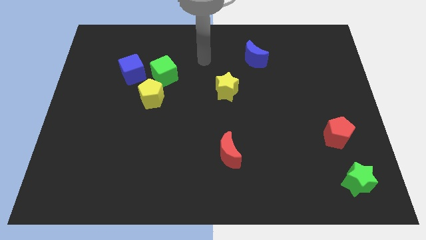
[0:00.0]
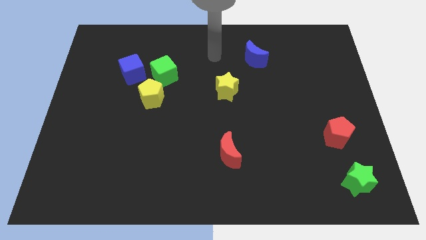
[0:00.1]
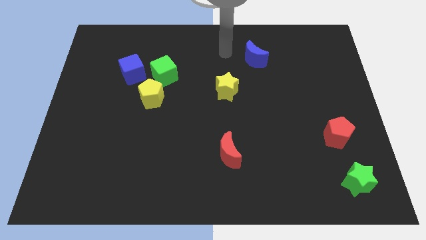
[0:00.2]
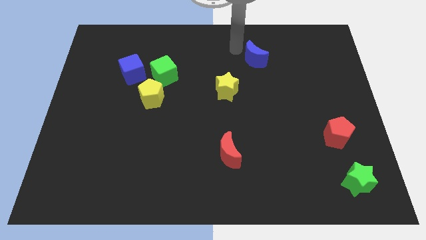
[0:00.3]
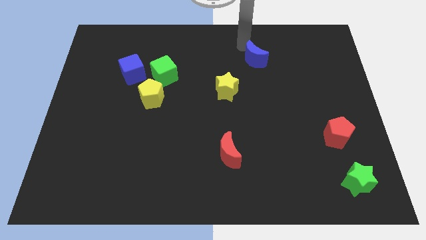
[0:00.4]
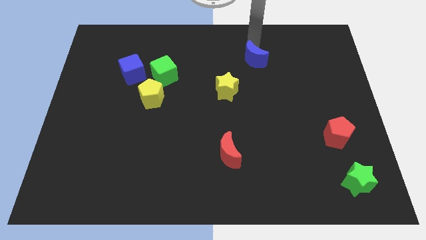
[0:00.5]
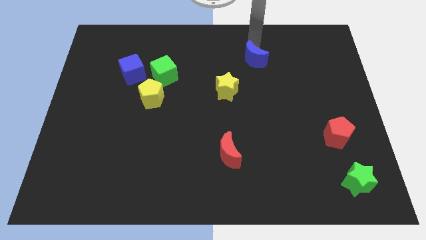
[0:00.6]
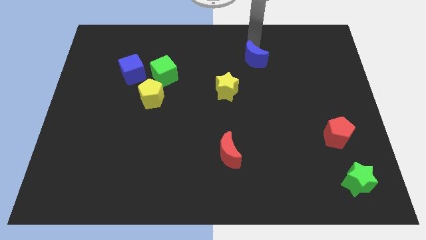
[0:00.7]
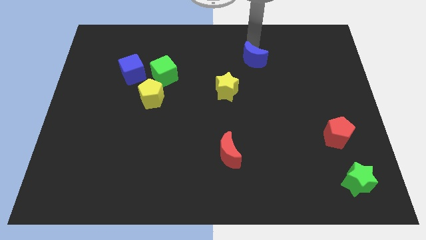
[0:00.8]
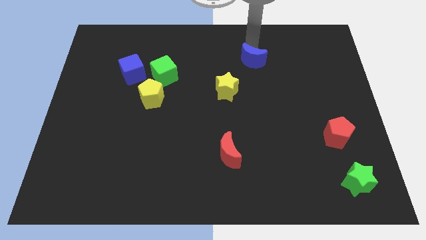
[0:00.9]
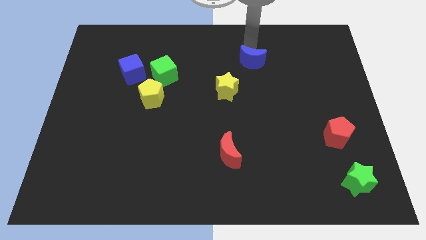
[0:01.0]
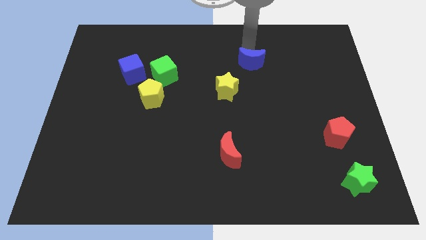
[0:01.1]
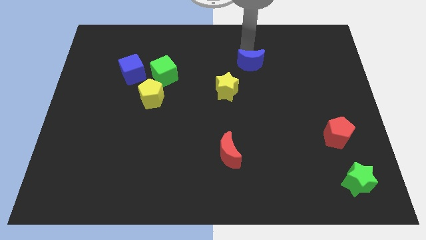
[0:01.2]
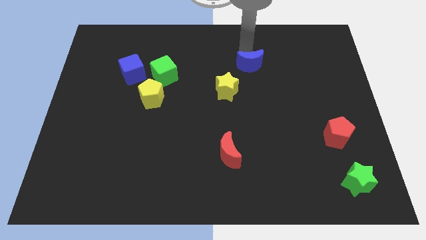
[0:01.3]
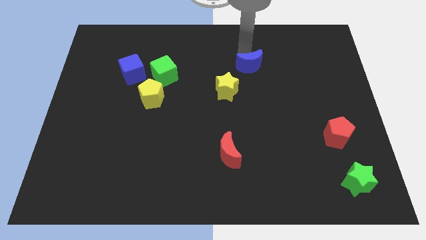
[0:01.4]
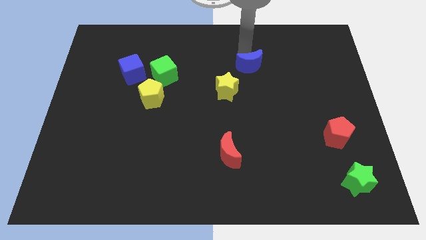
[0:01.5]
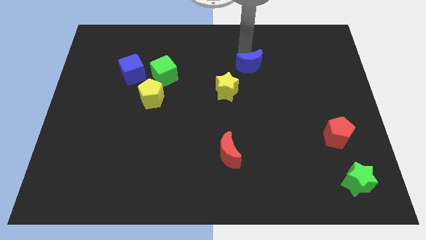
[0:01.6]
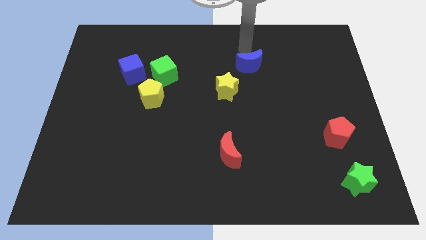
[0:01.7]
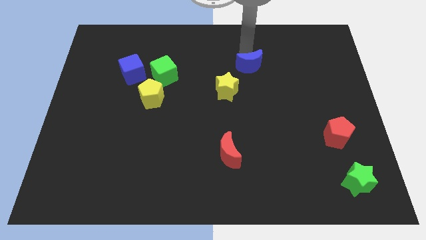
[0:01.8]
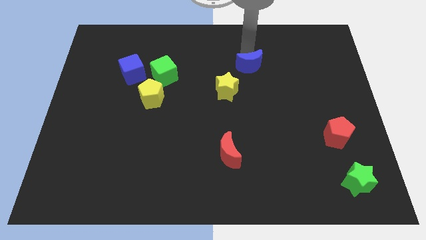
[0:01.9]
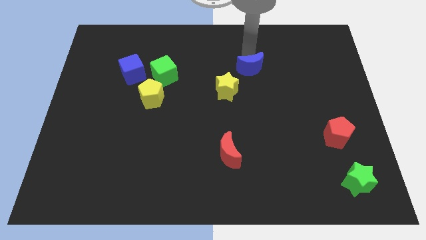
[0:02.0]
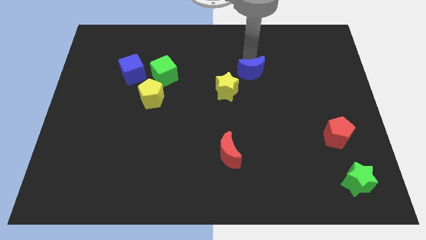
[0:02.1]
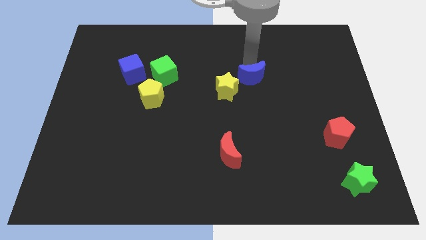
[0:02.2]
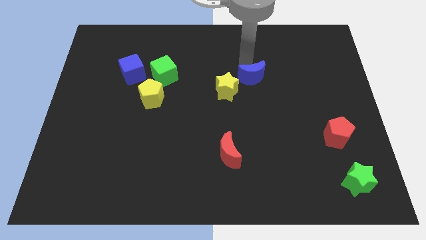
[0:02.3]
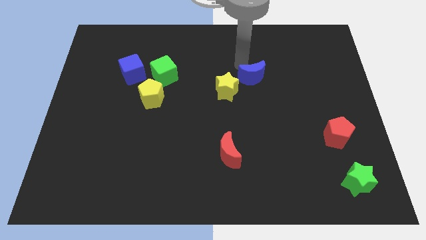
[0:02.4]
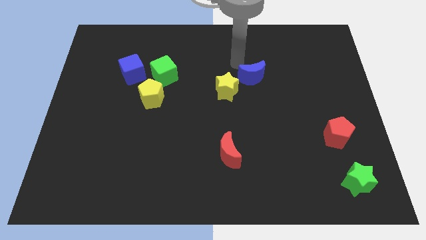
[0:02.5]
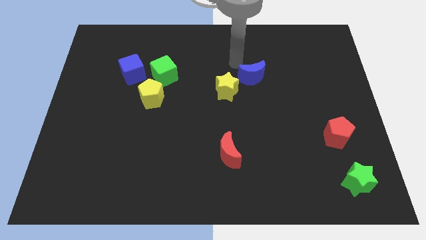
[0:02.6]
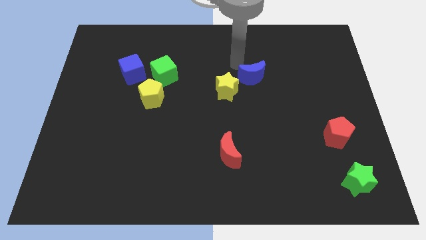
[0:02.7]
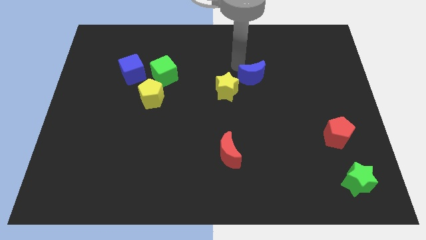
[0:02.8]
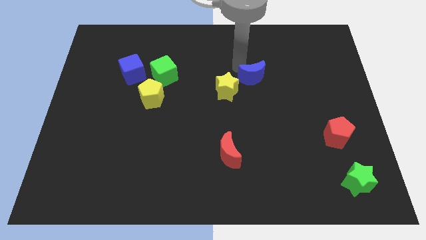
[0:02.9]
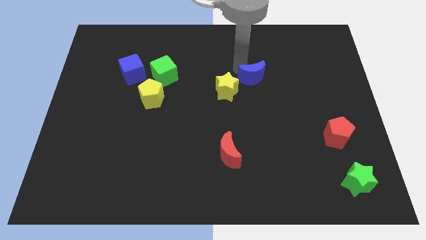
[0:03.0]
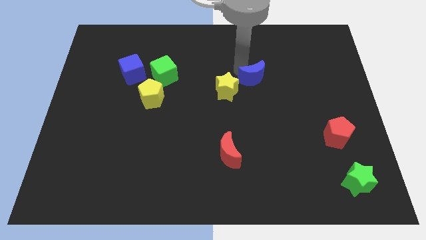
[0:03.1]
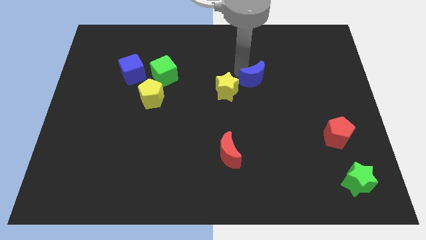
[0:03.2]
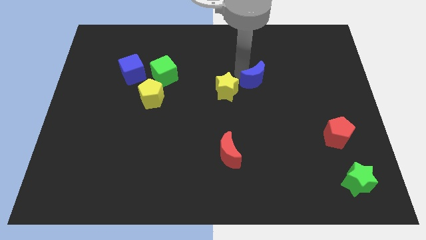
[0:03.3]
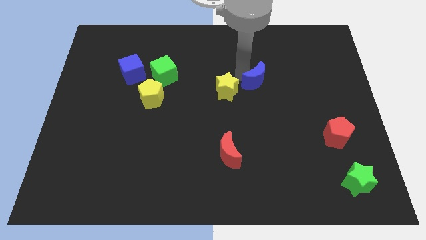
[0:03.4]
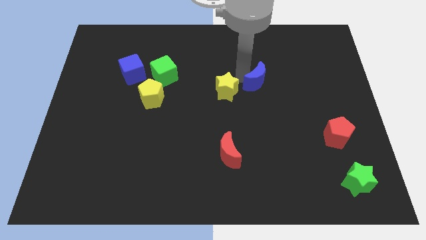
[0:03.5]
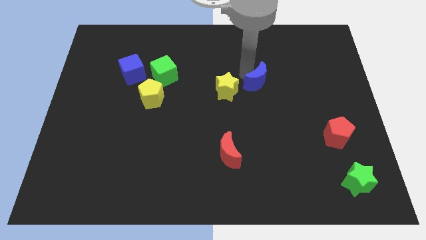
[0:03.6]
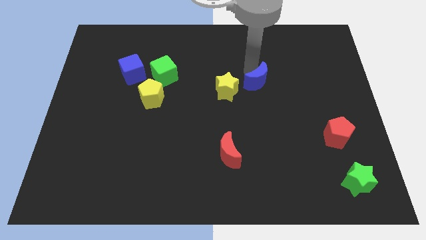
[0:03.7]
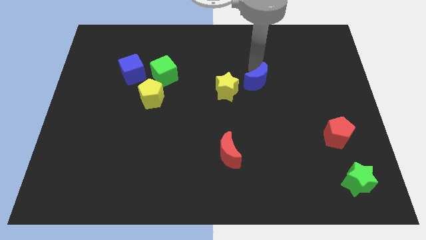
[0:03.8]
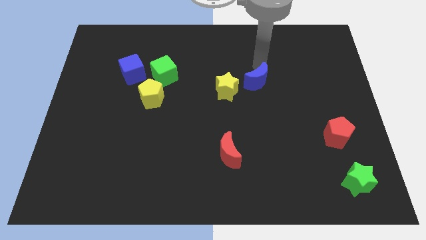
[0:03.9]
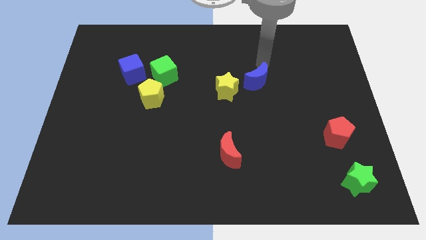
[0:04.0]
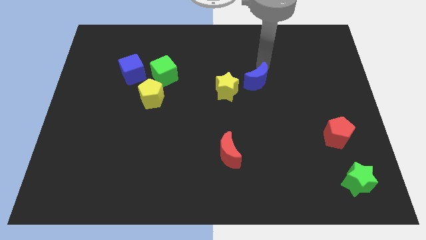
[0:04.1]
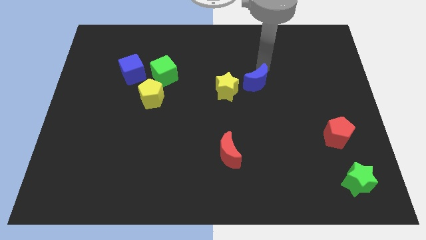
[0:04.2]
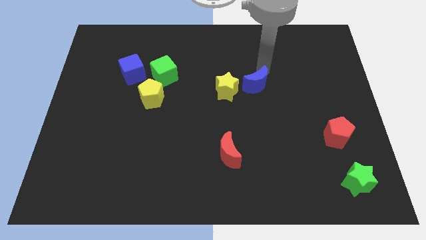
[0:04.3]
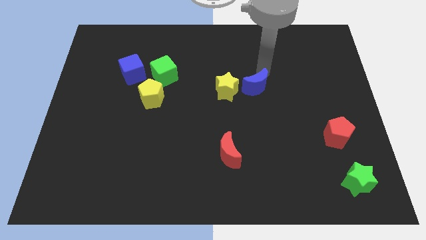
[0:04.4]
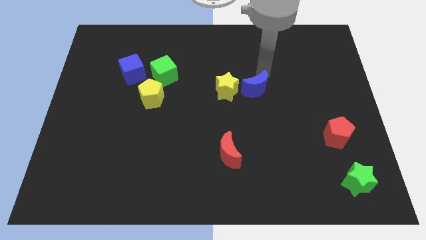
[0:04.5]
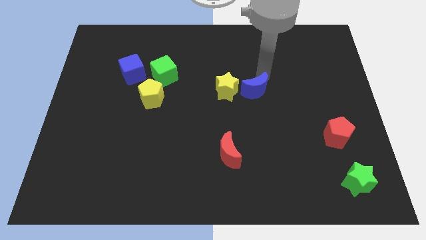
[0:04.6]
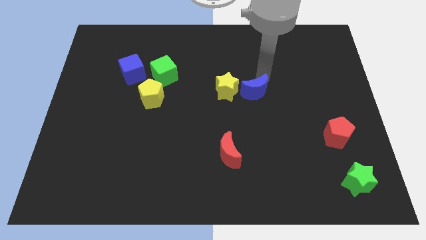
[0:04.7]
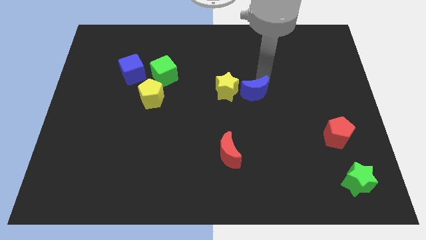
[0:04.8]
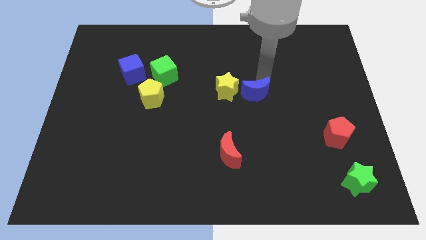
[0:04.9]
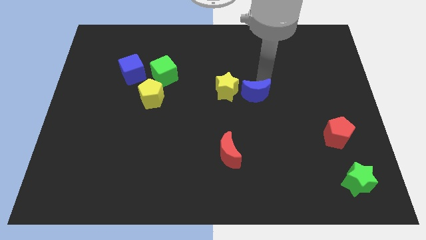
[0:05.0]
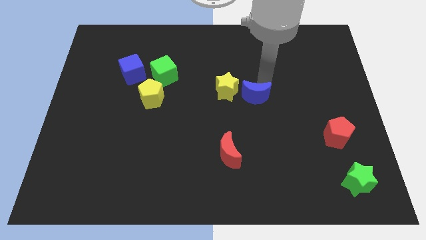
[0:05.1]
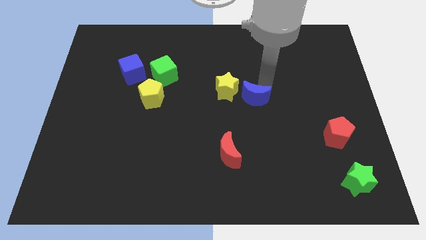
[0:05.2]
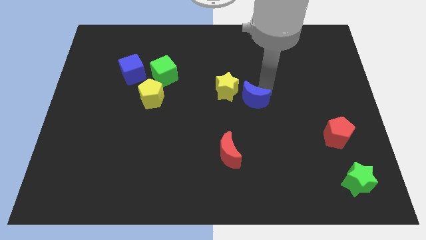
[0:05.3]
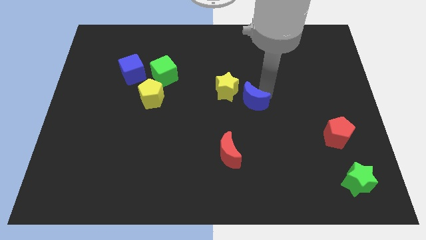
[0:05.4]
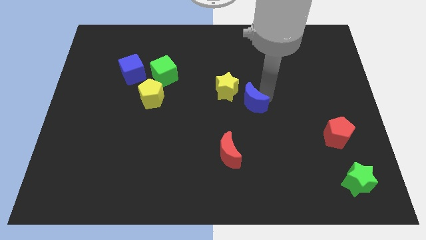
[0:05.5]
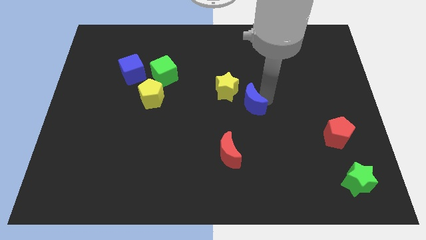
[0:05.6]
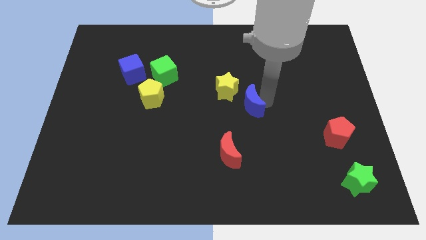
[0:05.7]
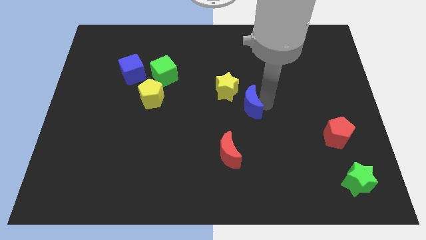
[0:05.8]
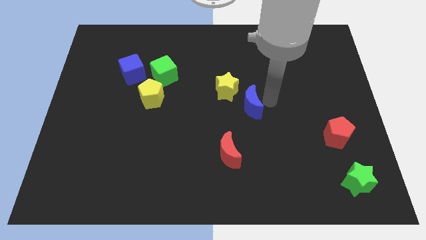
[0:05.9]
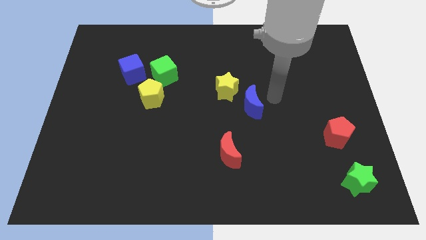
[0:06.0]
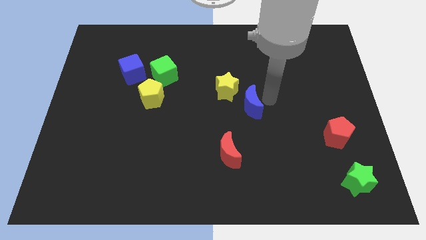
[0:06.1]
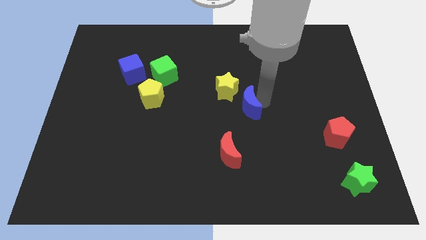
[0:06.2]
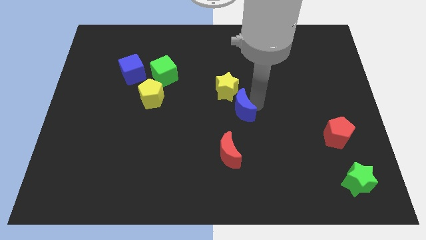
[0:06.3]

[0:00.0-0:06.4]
move the blue moon to the top side of the red moon

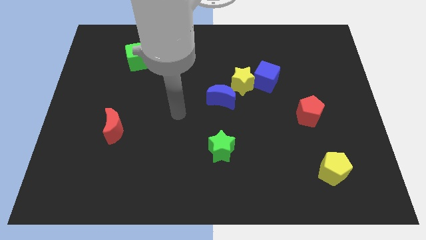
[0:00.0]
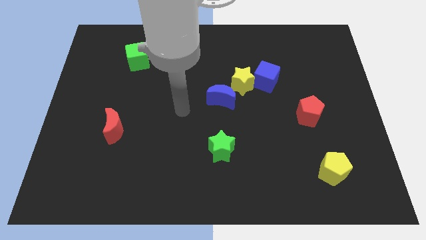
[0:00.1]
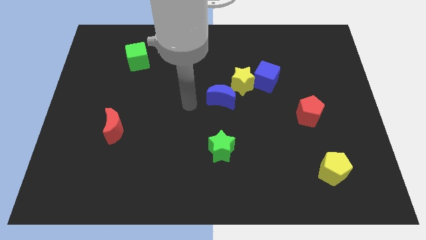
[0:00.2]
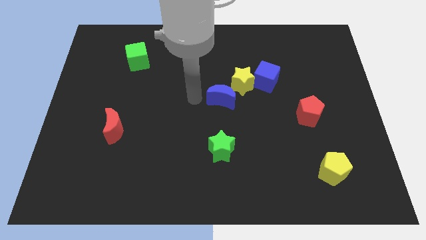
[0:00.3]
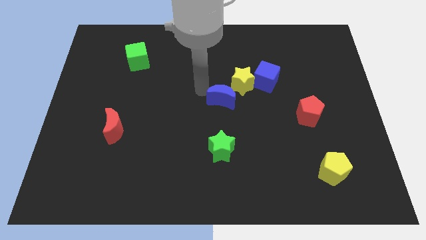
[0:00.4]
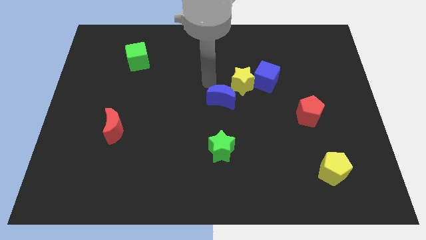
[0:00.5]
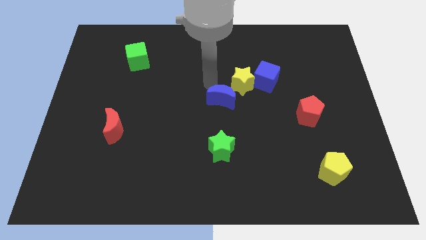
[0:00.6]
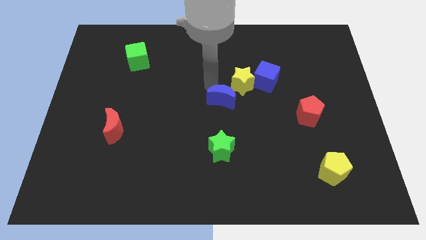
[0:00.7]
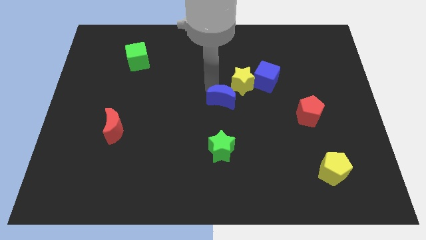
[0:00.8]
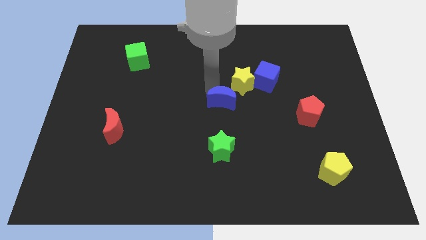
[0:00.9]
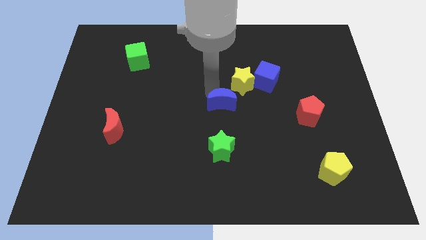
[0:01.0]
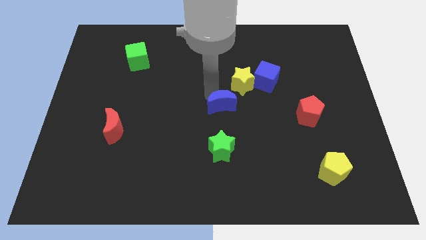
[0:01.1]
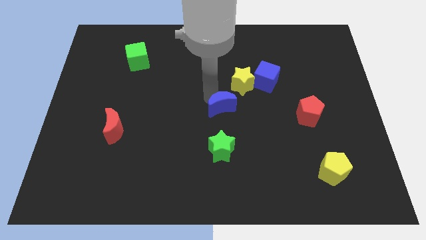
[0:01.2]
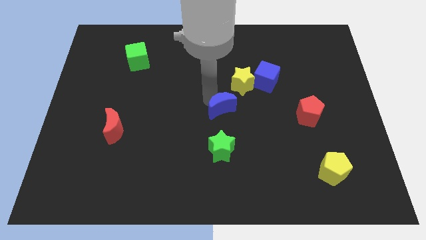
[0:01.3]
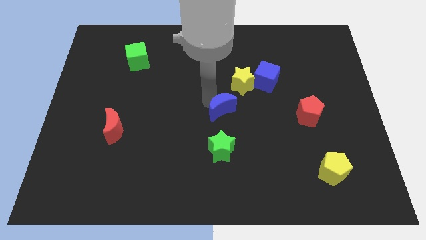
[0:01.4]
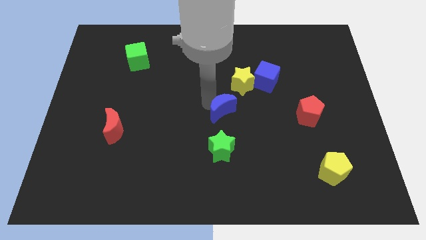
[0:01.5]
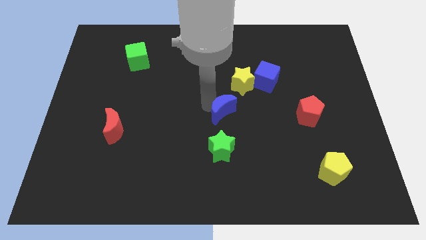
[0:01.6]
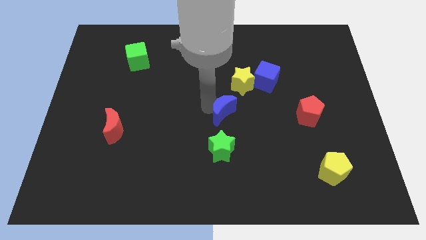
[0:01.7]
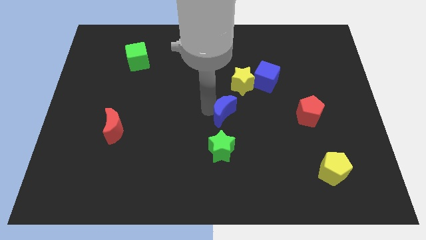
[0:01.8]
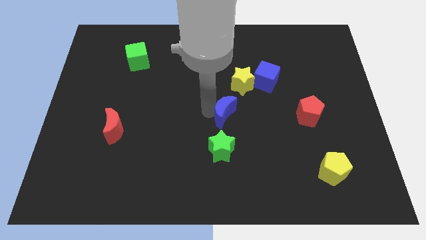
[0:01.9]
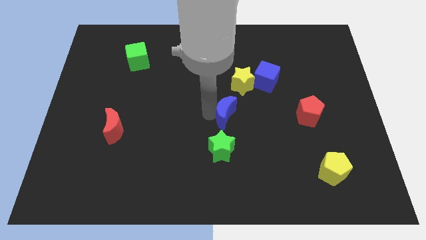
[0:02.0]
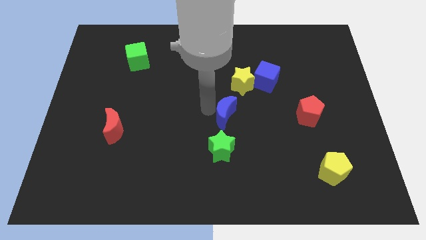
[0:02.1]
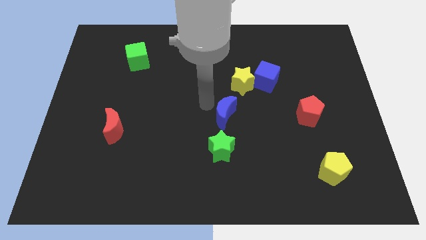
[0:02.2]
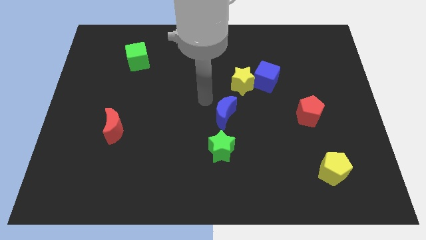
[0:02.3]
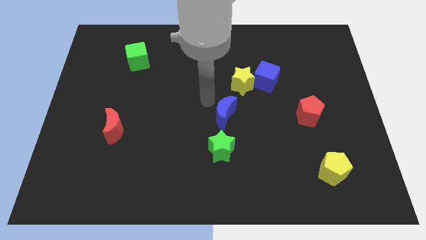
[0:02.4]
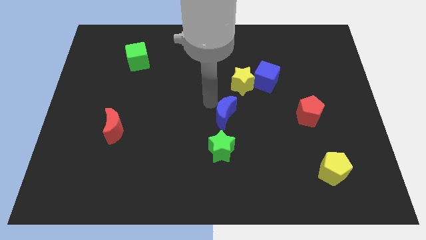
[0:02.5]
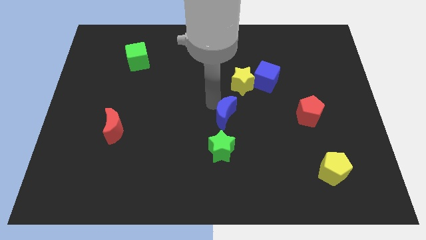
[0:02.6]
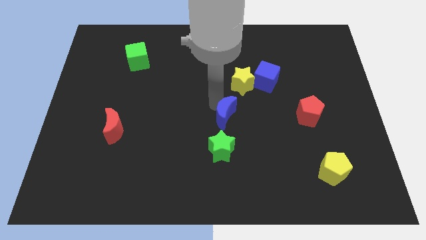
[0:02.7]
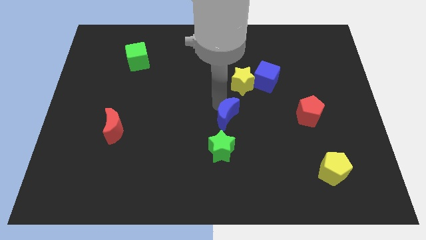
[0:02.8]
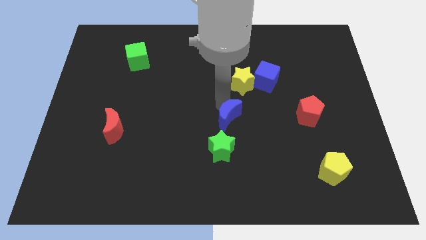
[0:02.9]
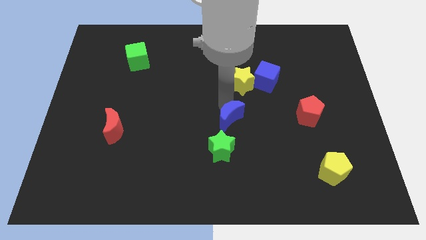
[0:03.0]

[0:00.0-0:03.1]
slide the blue moon diagonally up and to the right of the green star
